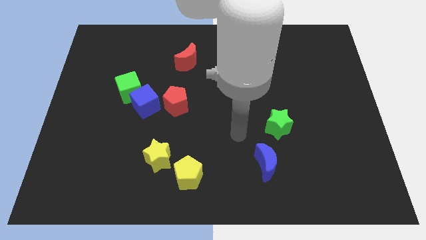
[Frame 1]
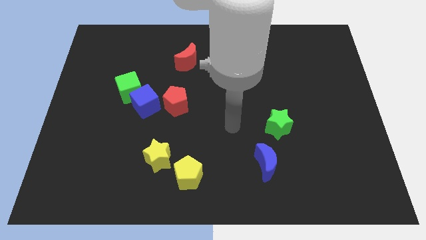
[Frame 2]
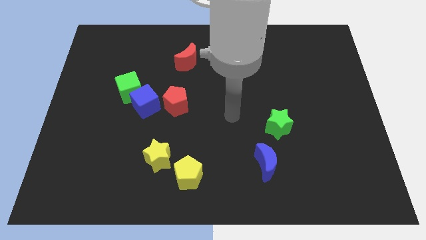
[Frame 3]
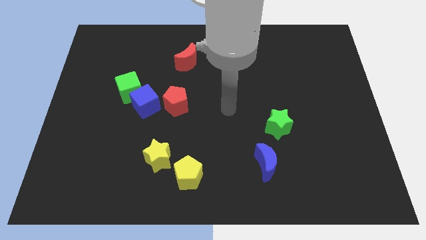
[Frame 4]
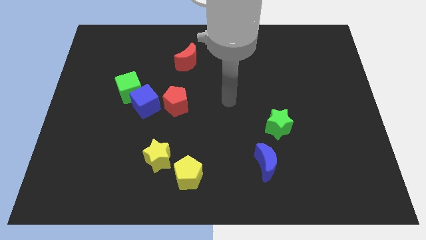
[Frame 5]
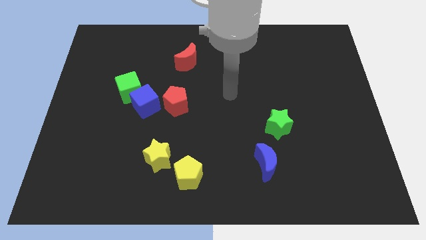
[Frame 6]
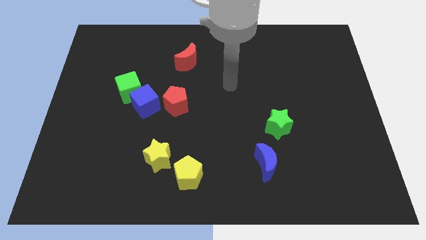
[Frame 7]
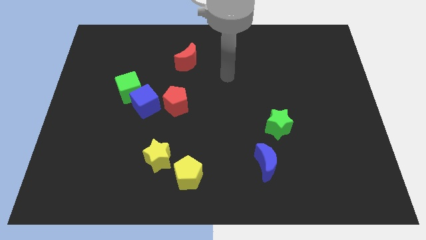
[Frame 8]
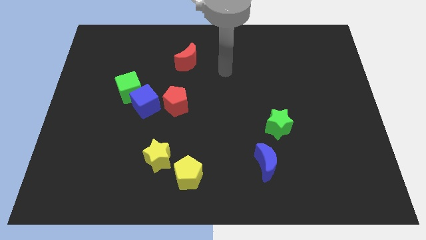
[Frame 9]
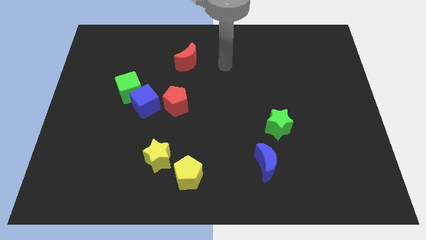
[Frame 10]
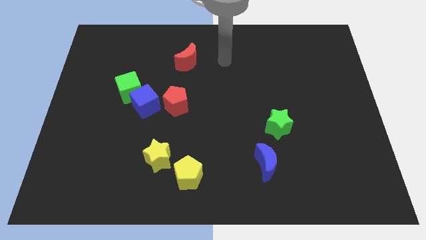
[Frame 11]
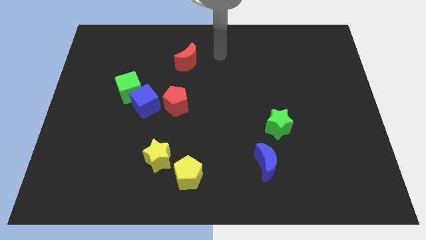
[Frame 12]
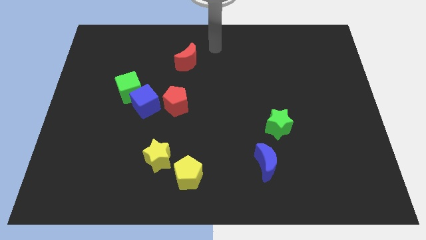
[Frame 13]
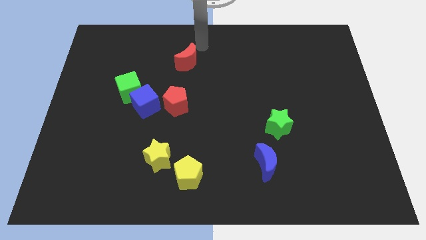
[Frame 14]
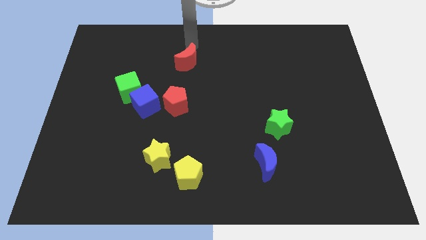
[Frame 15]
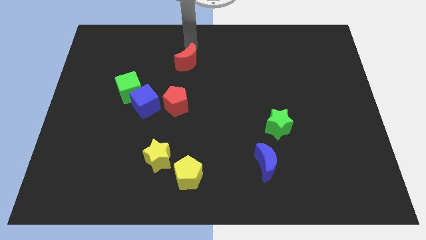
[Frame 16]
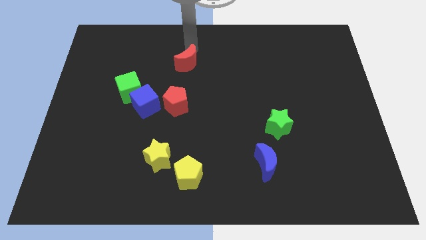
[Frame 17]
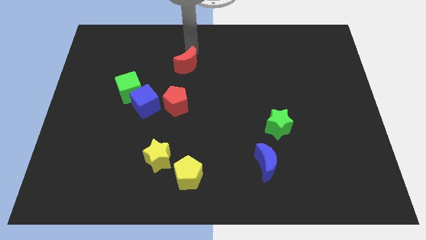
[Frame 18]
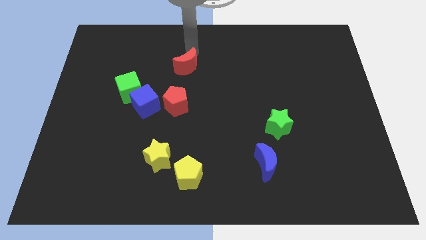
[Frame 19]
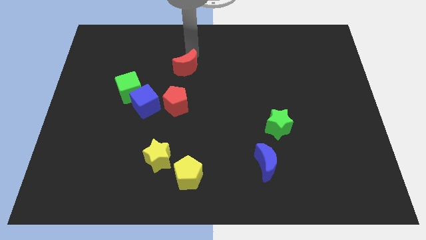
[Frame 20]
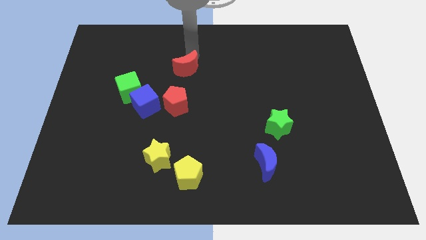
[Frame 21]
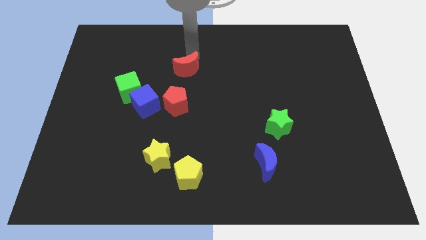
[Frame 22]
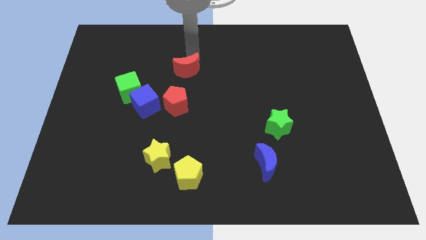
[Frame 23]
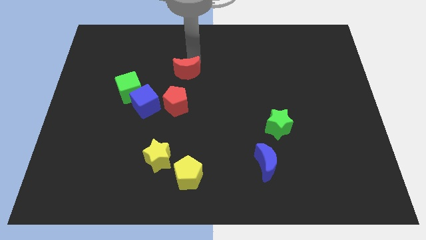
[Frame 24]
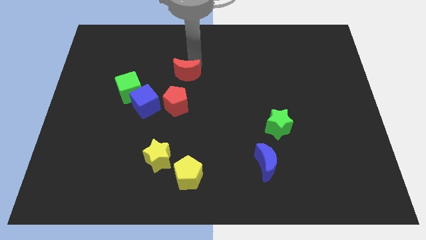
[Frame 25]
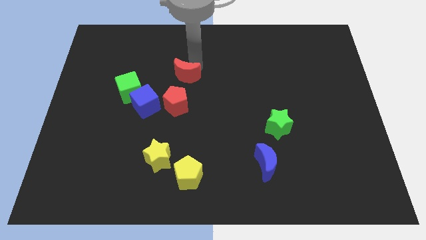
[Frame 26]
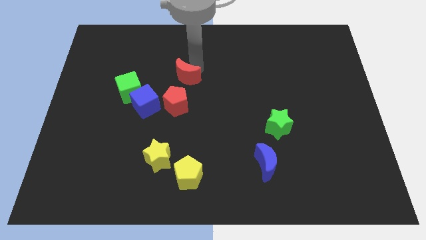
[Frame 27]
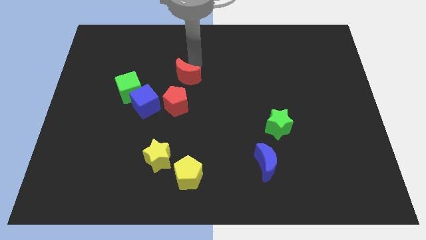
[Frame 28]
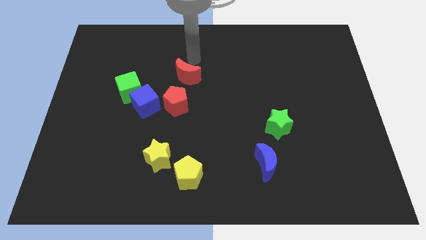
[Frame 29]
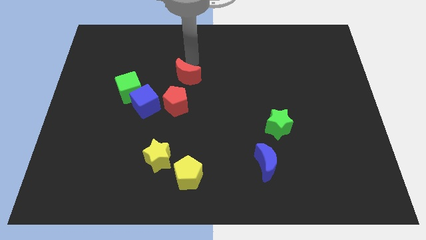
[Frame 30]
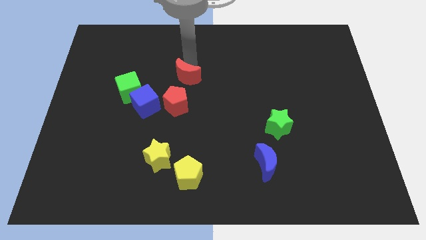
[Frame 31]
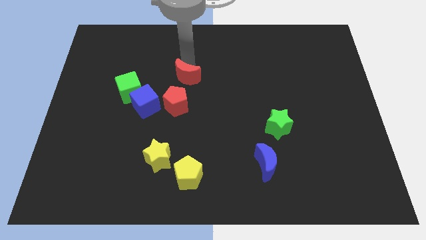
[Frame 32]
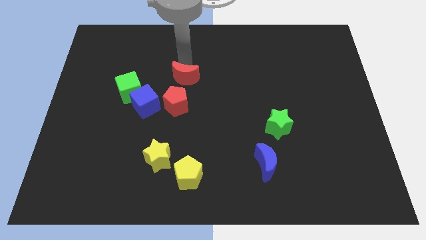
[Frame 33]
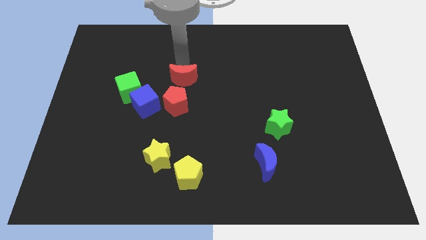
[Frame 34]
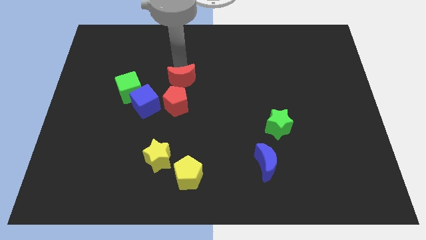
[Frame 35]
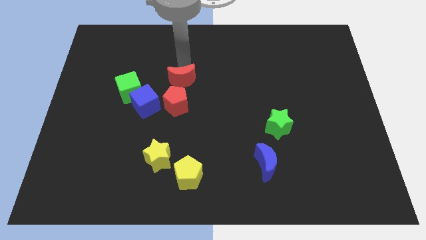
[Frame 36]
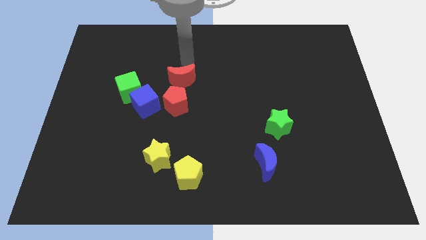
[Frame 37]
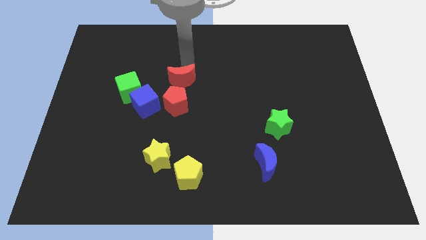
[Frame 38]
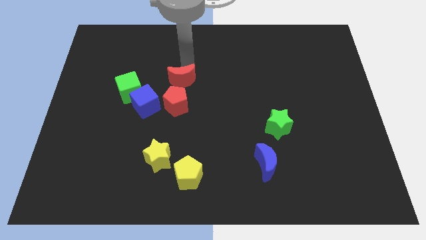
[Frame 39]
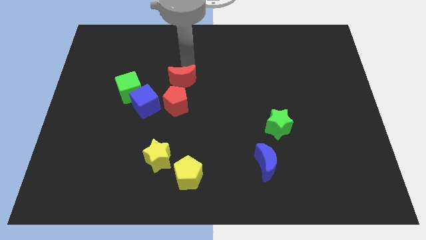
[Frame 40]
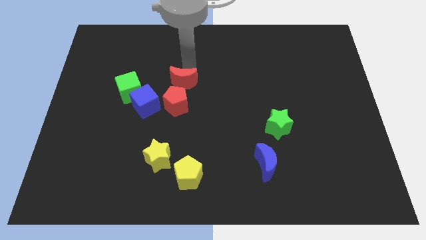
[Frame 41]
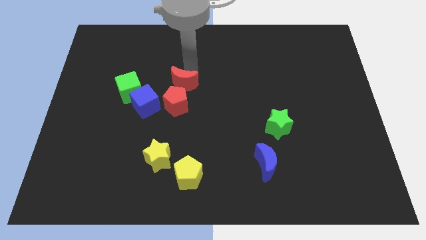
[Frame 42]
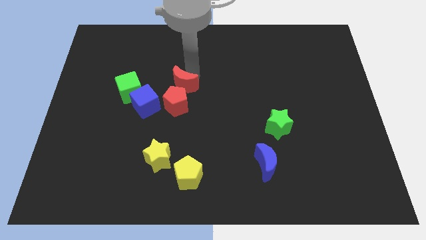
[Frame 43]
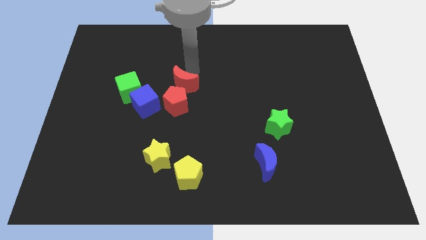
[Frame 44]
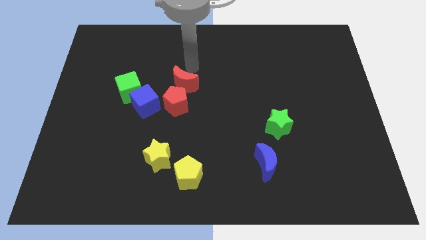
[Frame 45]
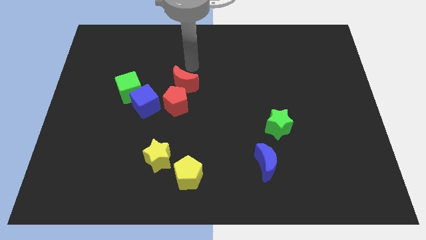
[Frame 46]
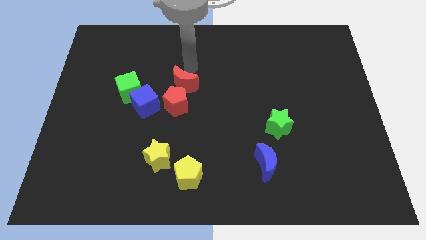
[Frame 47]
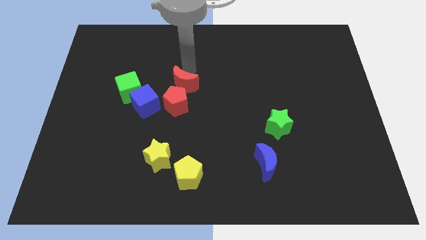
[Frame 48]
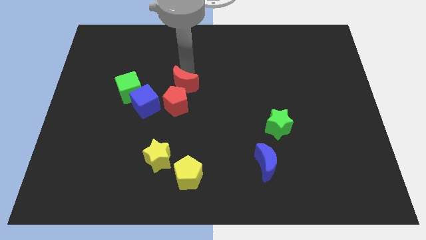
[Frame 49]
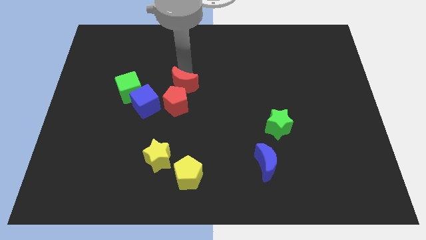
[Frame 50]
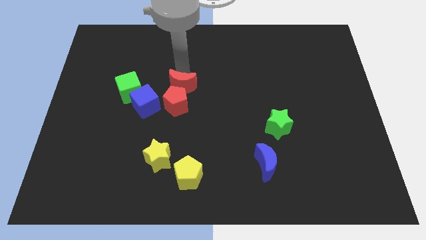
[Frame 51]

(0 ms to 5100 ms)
push the red moon close to the red pentagon

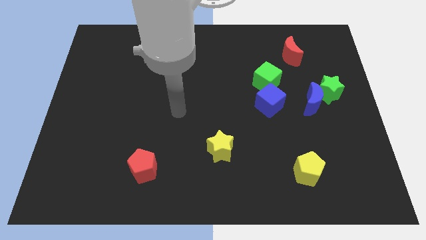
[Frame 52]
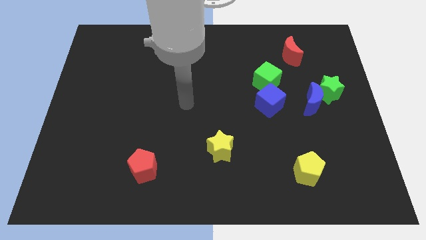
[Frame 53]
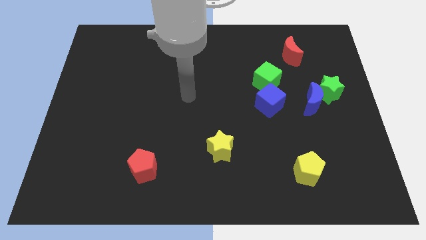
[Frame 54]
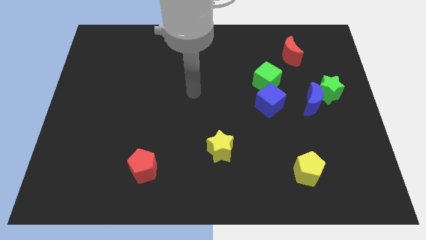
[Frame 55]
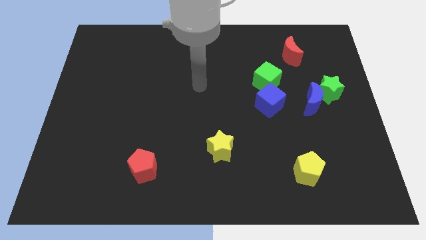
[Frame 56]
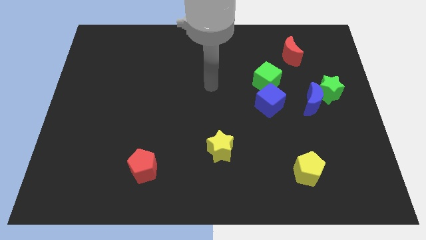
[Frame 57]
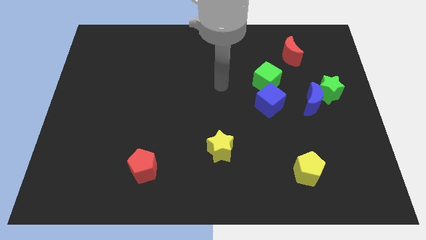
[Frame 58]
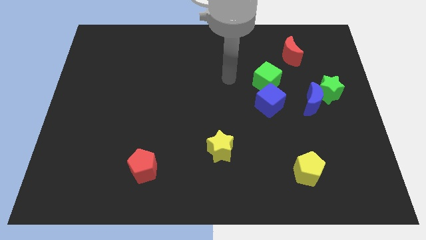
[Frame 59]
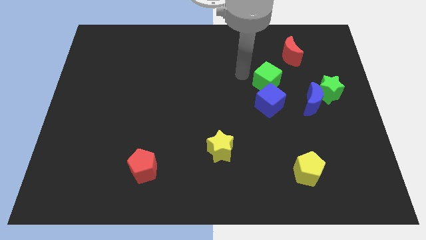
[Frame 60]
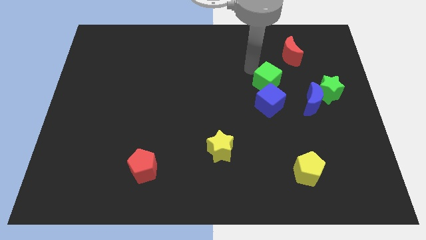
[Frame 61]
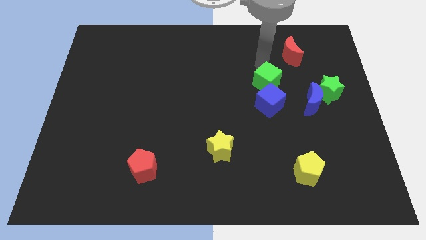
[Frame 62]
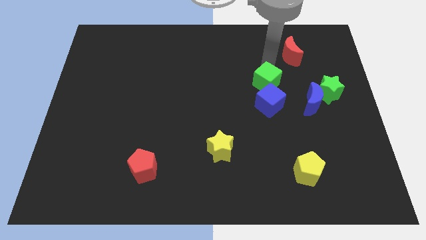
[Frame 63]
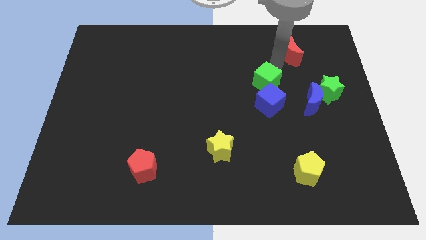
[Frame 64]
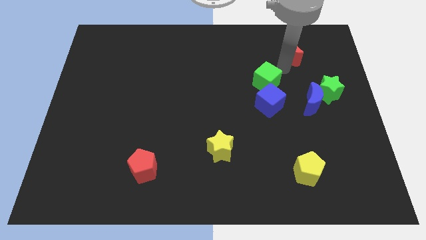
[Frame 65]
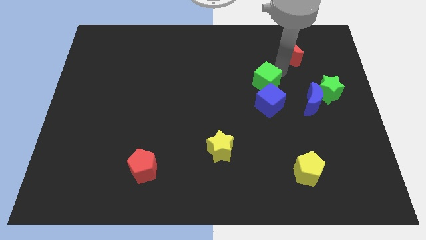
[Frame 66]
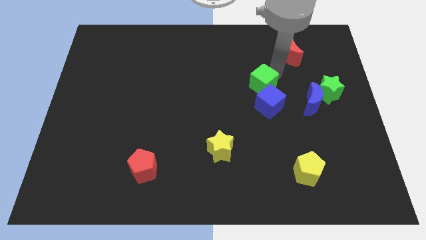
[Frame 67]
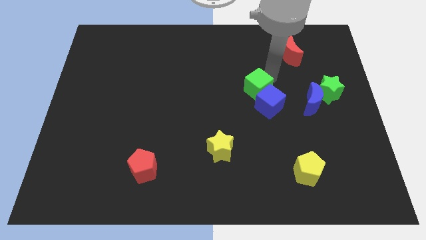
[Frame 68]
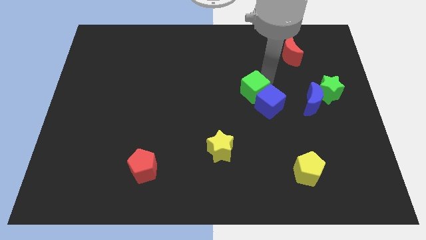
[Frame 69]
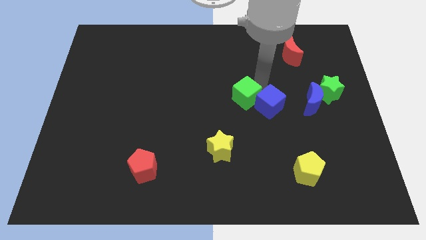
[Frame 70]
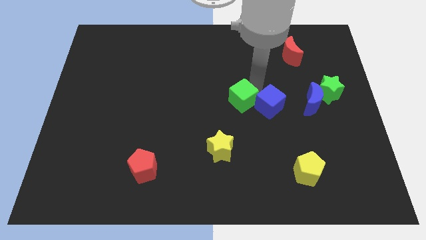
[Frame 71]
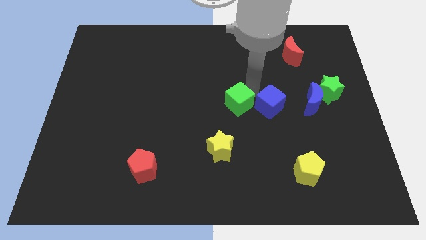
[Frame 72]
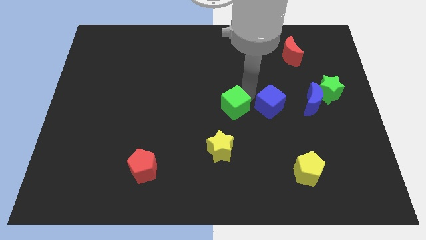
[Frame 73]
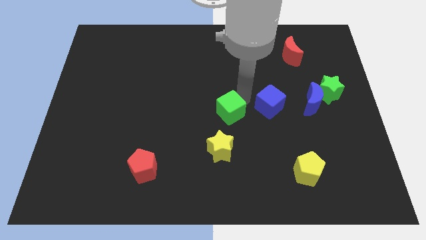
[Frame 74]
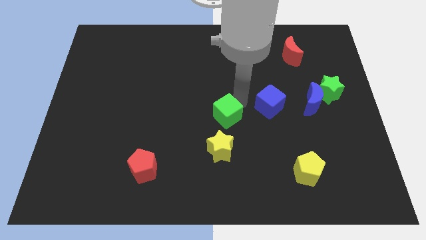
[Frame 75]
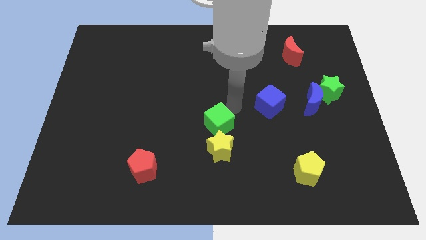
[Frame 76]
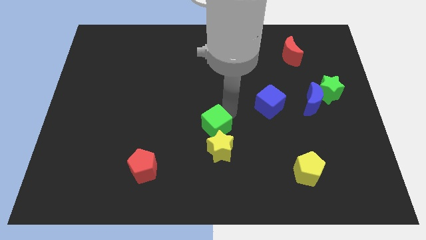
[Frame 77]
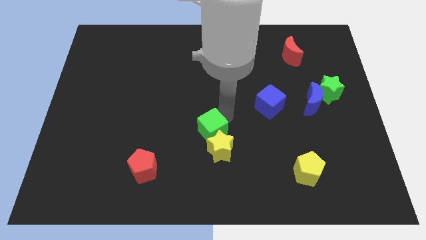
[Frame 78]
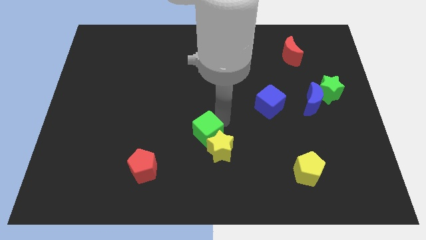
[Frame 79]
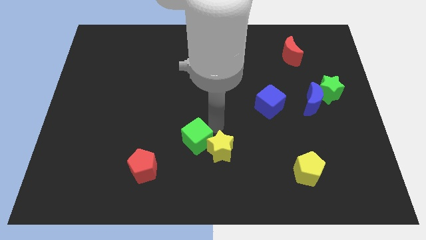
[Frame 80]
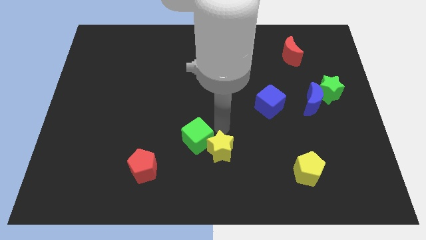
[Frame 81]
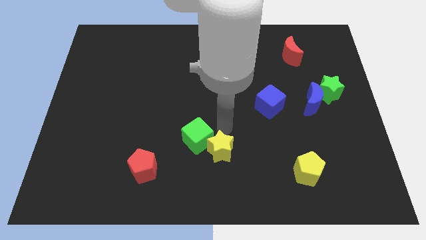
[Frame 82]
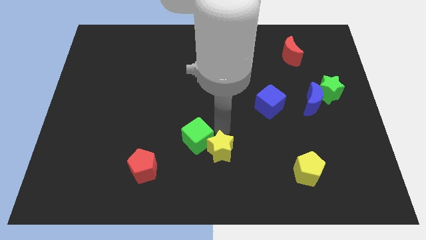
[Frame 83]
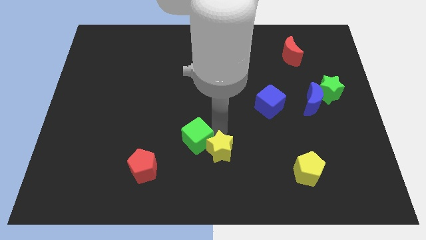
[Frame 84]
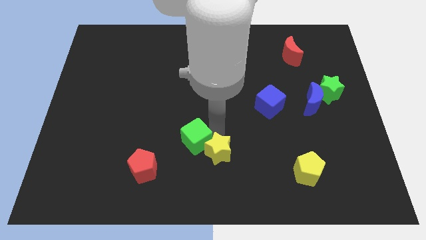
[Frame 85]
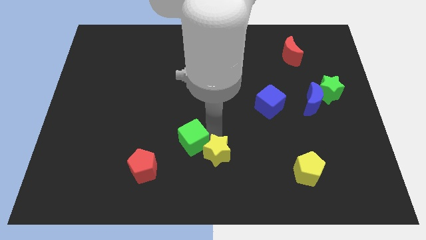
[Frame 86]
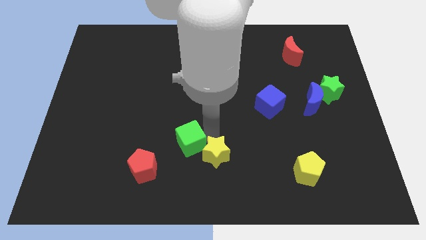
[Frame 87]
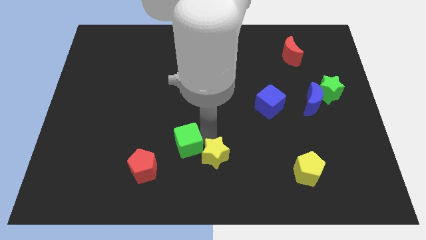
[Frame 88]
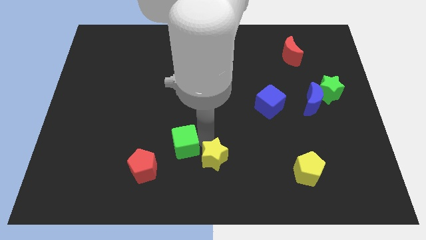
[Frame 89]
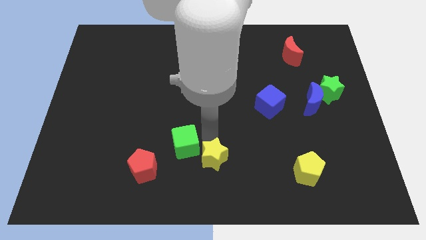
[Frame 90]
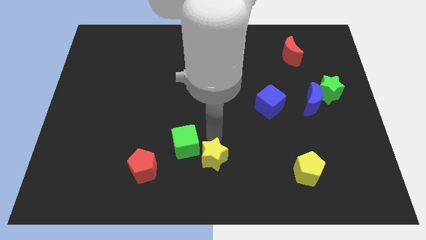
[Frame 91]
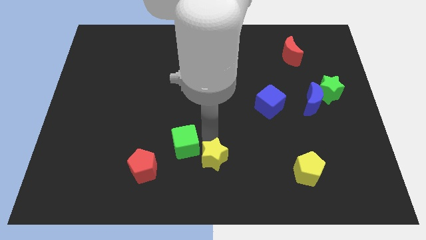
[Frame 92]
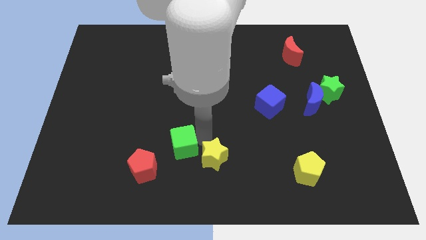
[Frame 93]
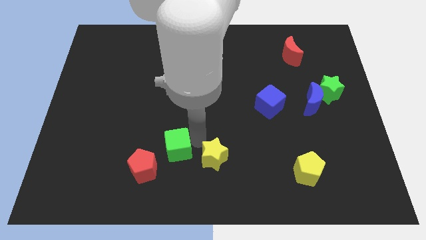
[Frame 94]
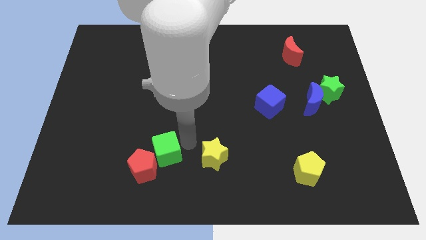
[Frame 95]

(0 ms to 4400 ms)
push the green cube next to the red pentagon
